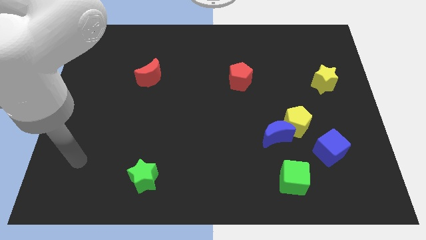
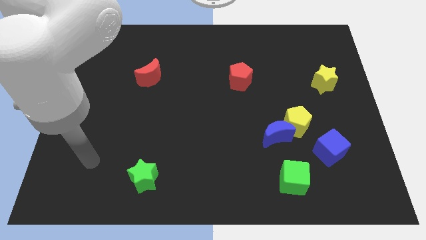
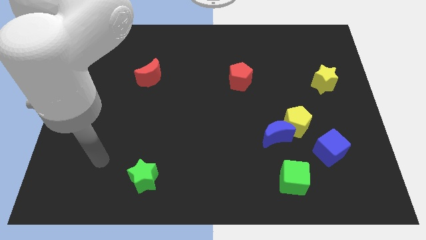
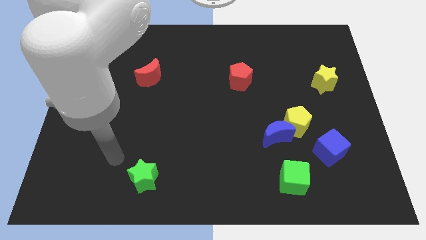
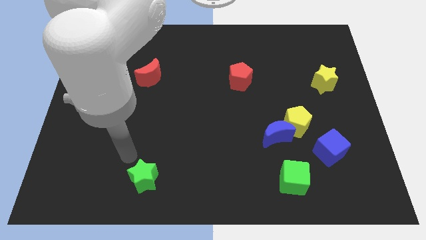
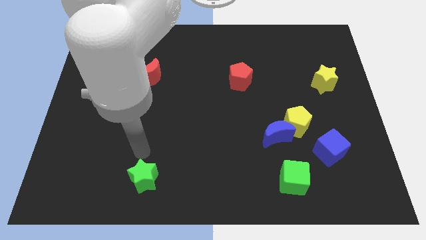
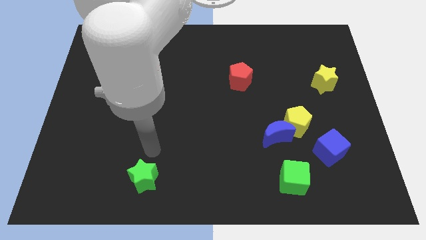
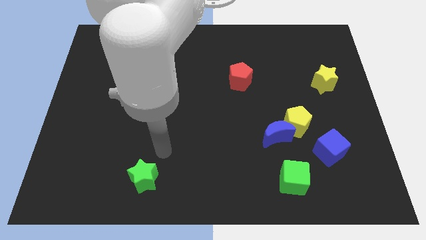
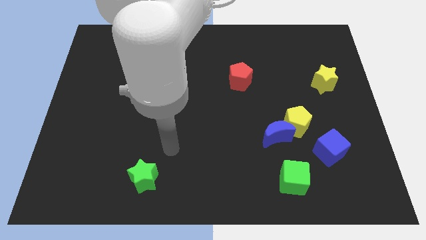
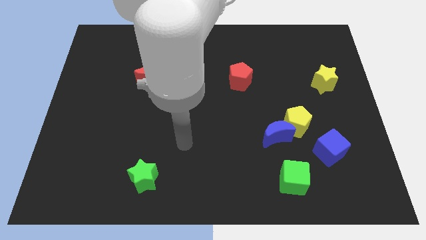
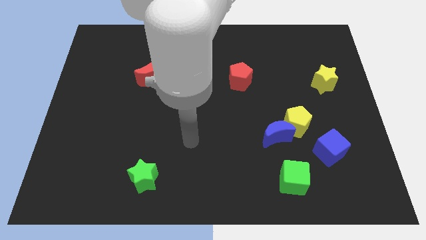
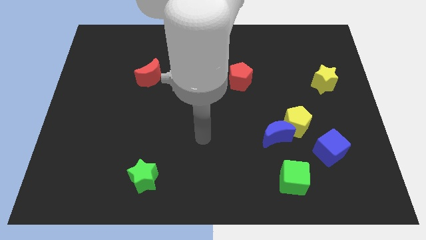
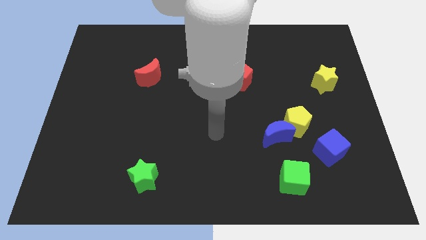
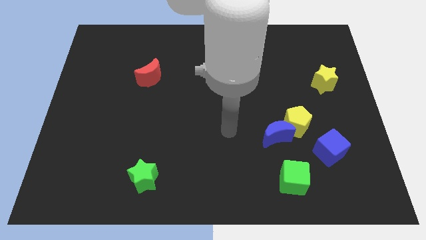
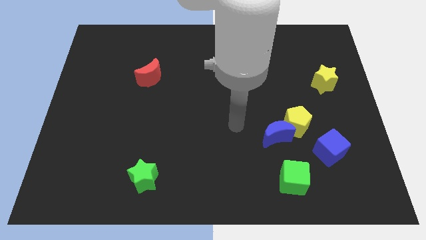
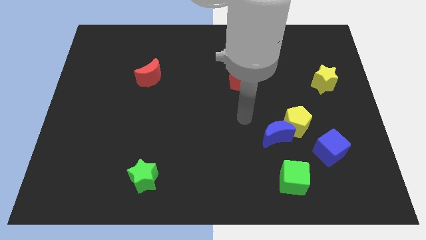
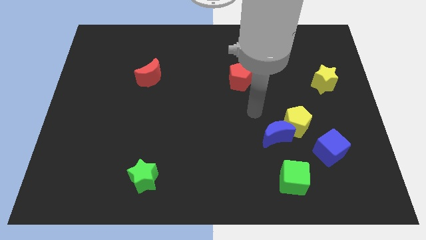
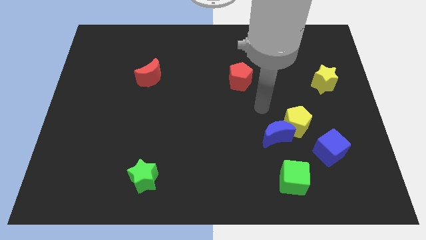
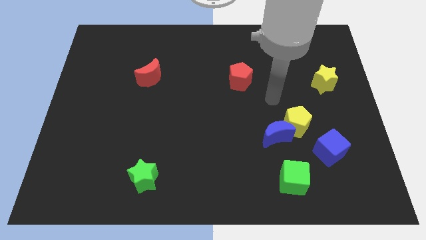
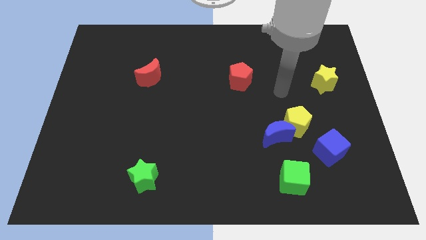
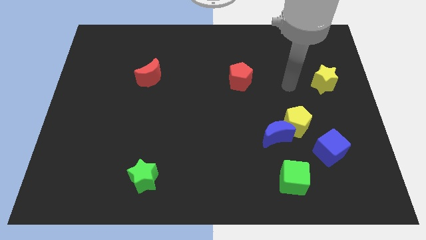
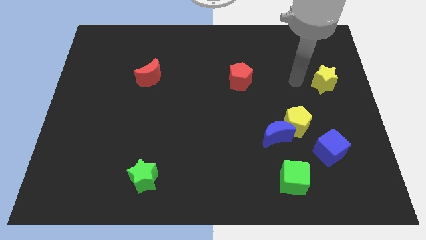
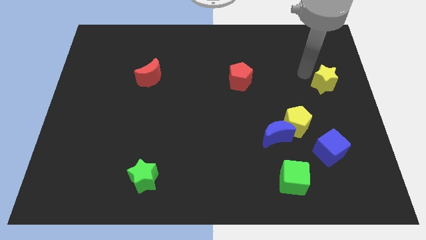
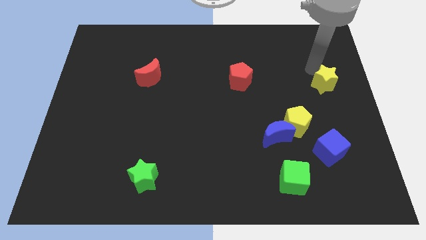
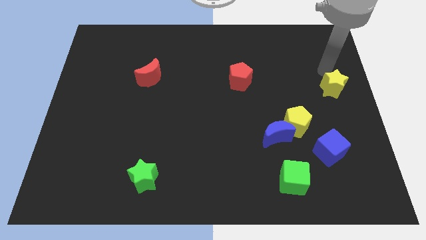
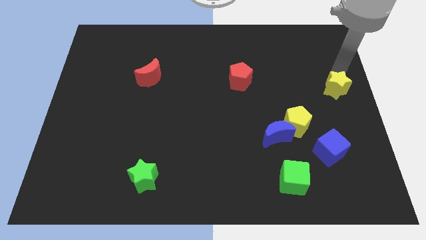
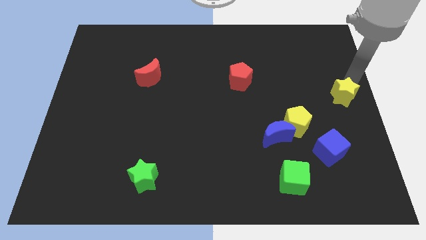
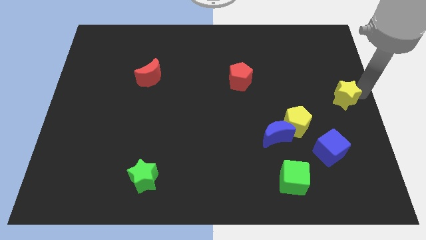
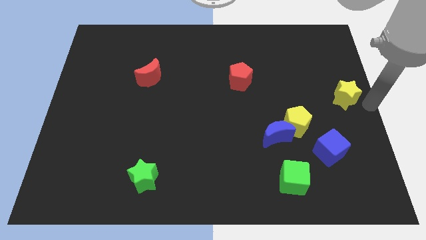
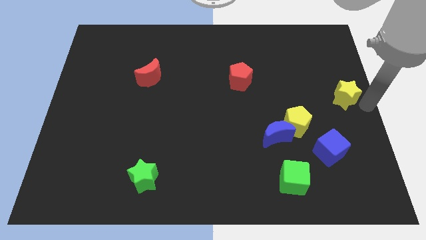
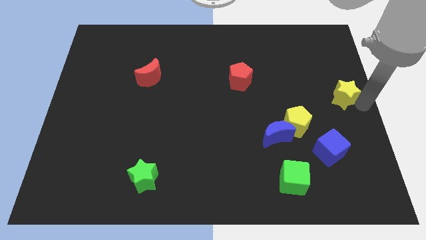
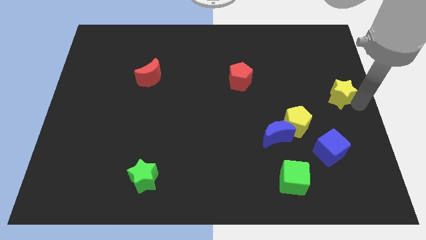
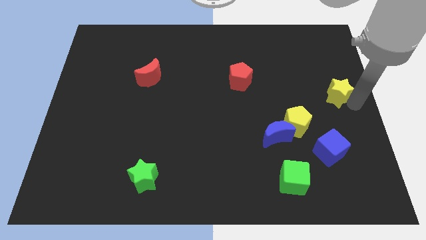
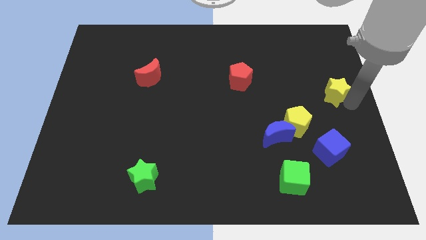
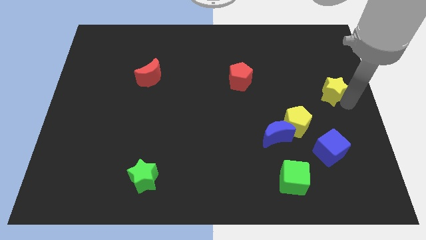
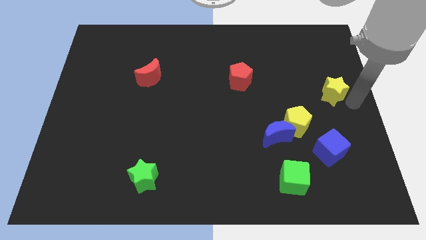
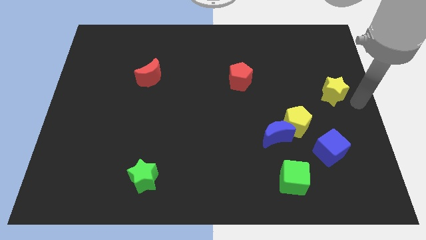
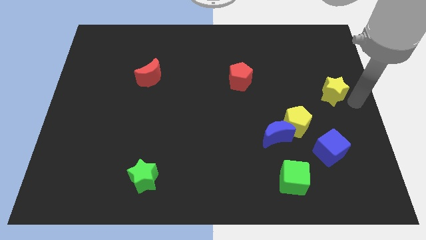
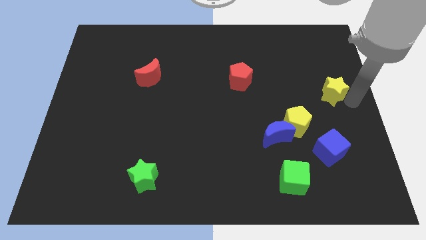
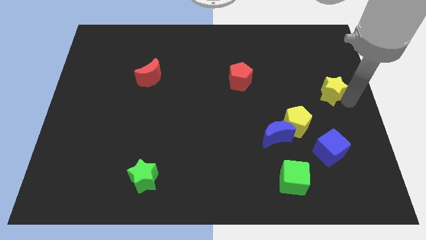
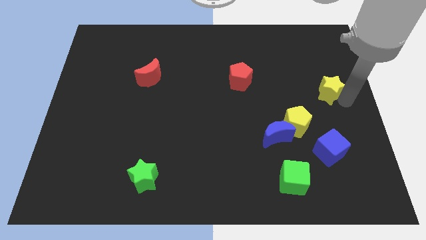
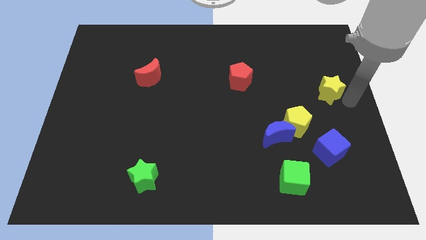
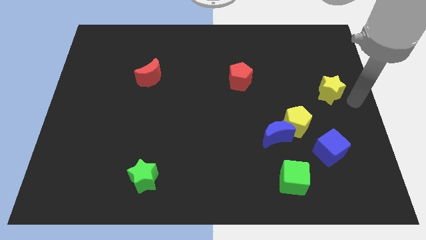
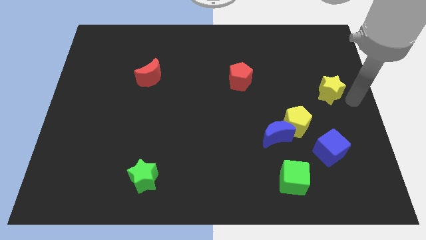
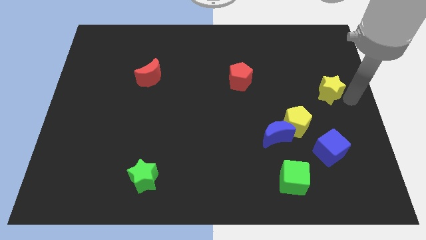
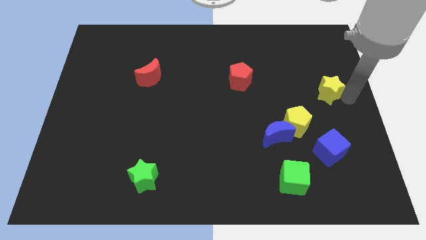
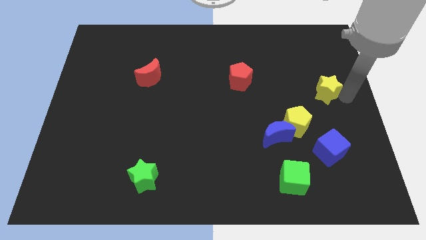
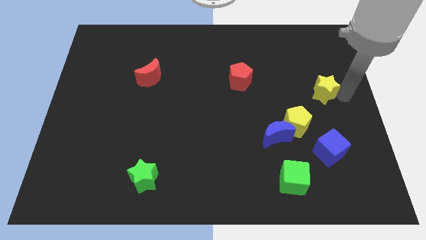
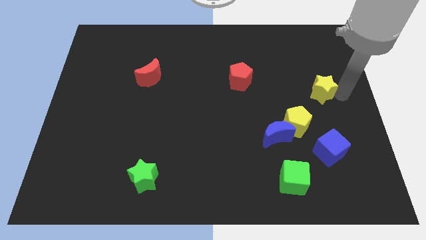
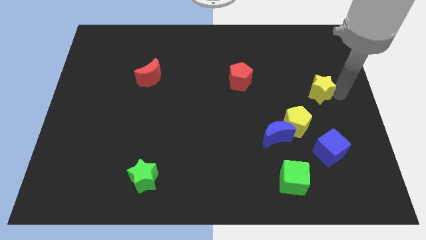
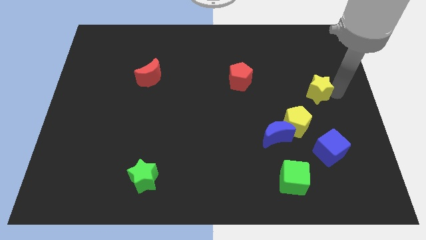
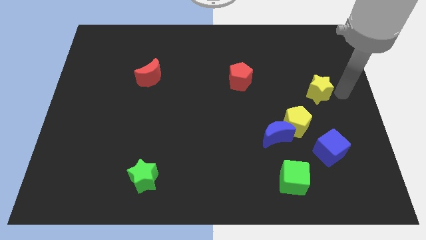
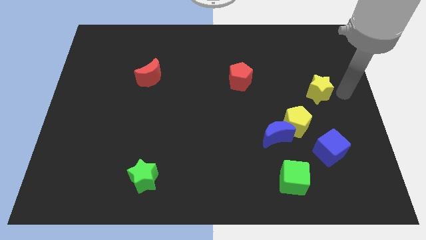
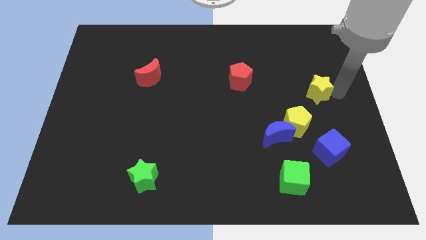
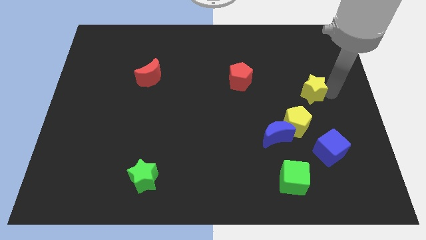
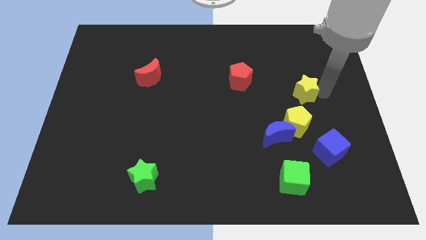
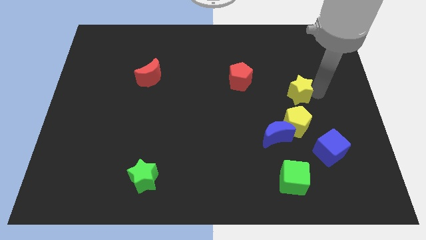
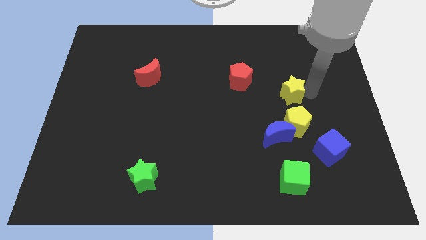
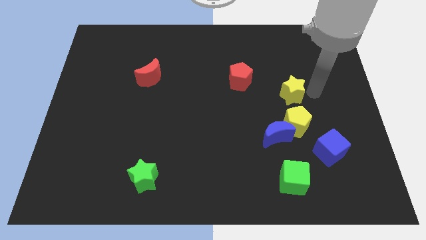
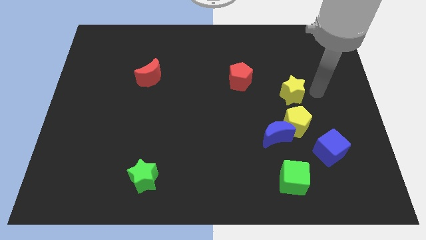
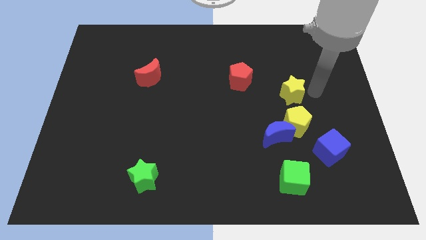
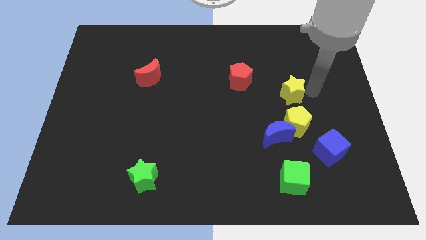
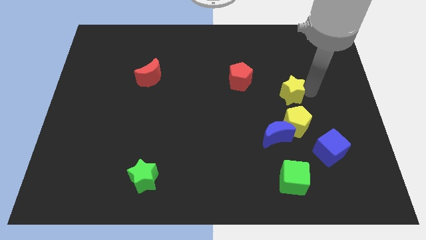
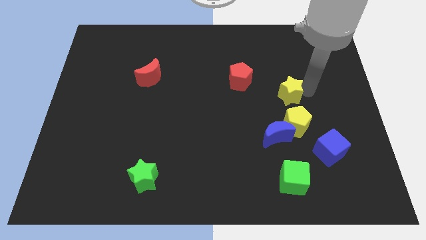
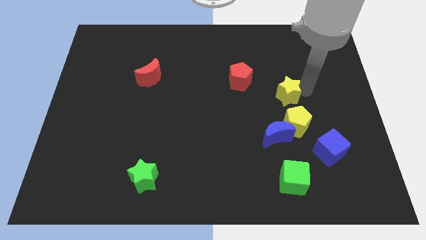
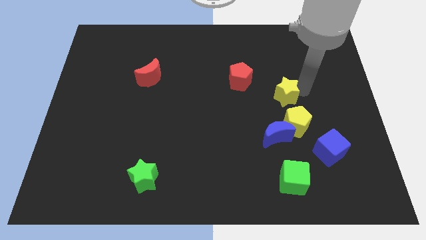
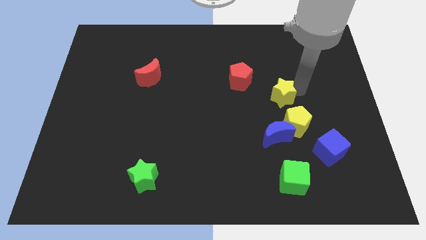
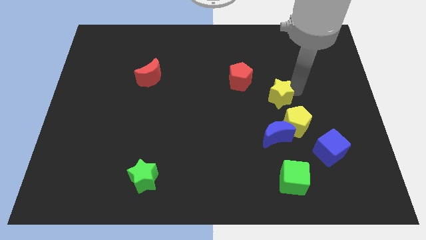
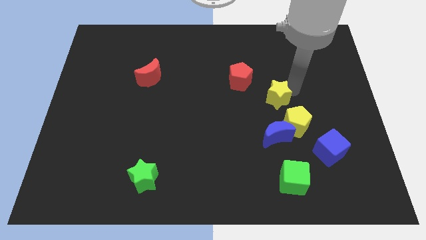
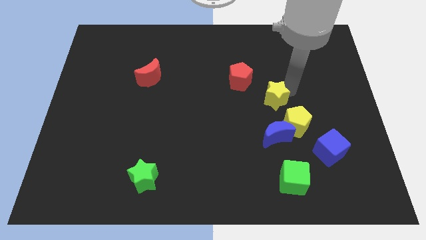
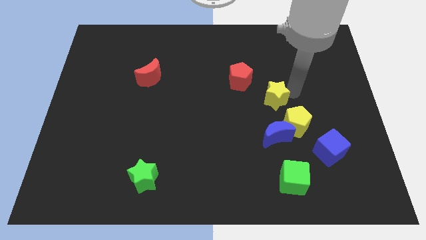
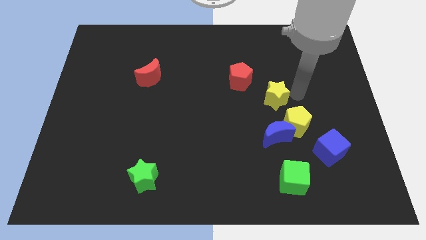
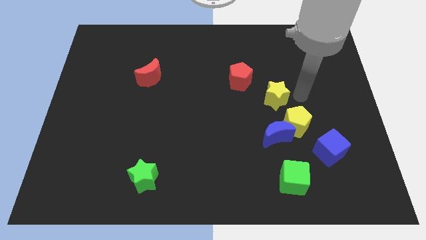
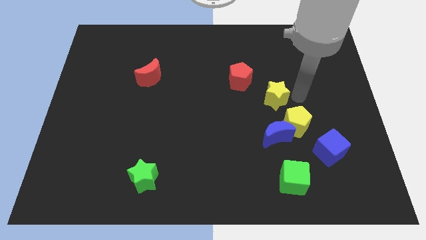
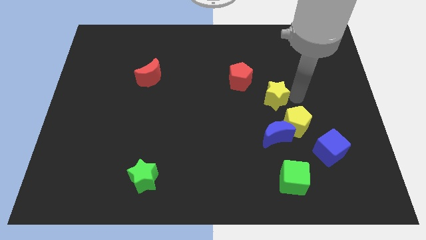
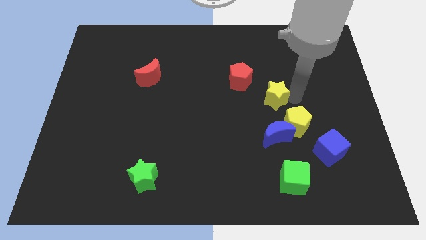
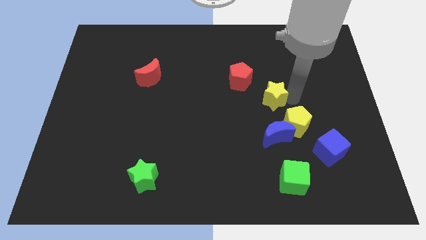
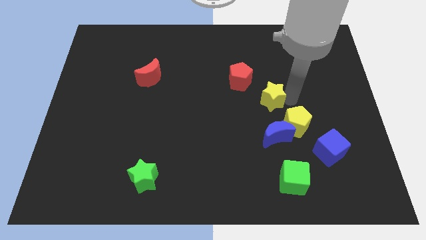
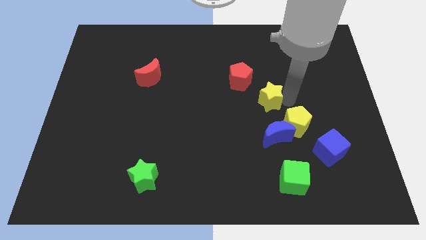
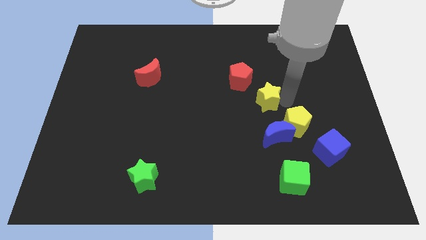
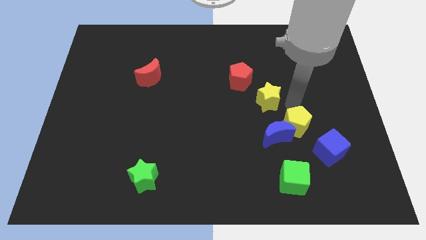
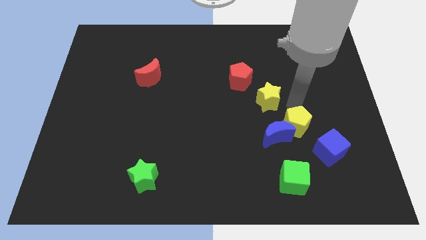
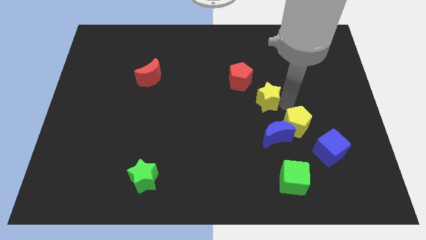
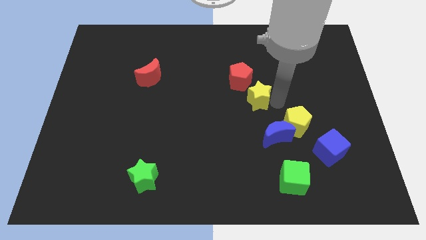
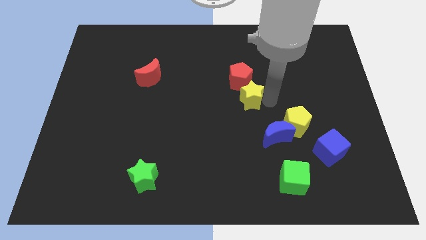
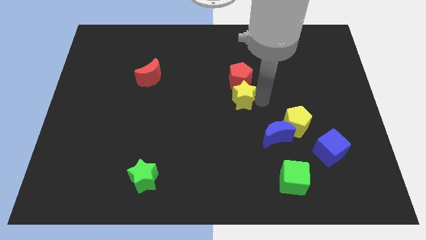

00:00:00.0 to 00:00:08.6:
slide the yellow star to the left
